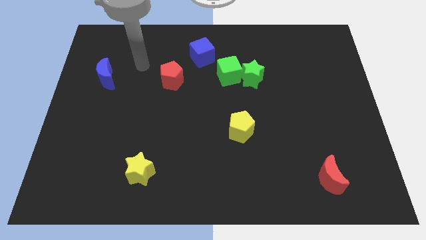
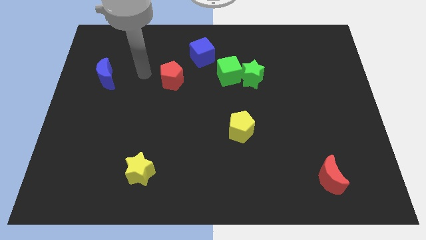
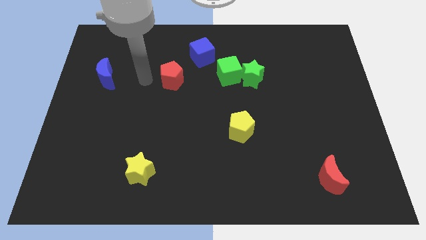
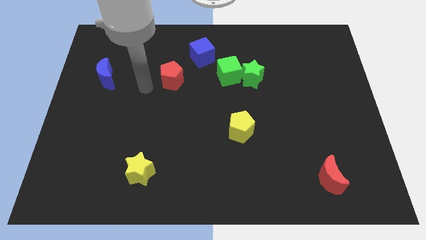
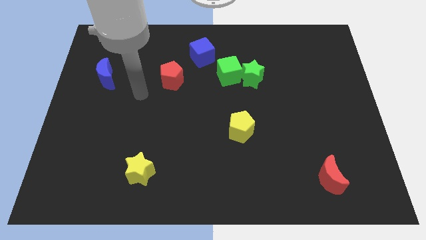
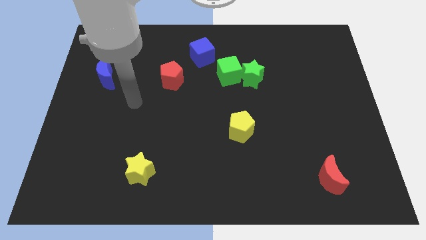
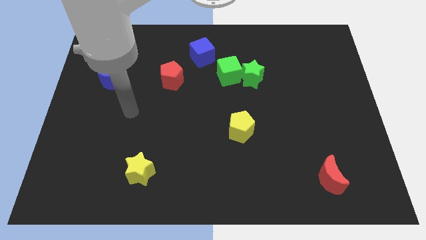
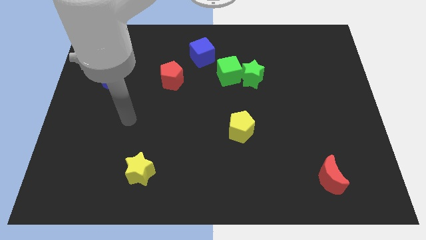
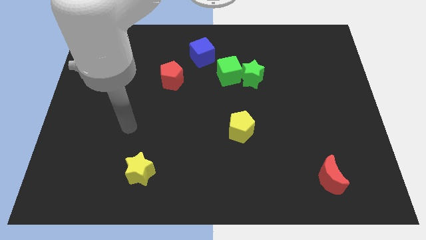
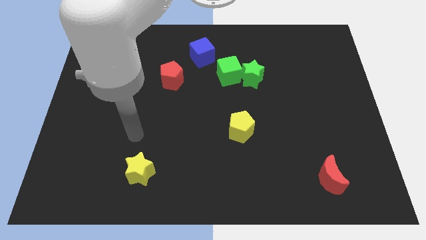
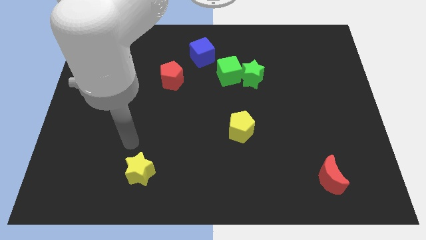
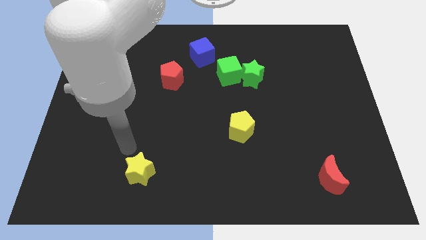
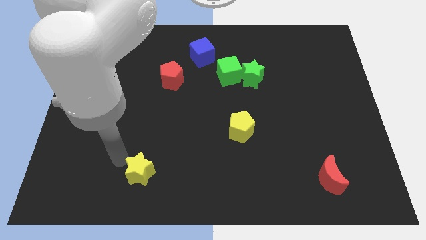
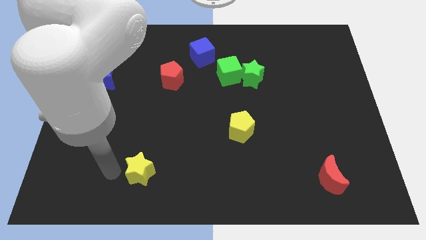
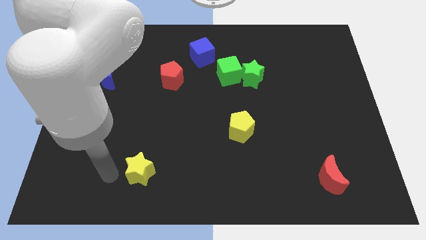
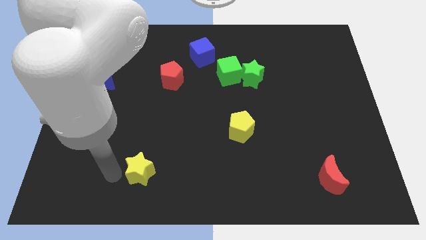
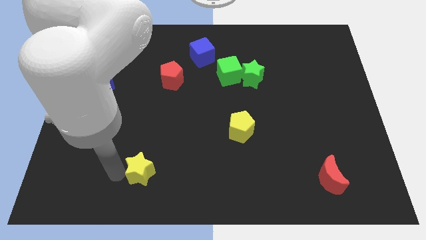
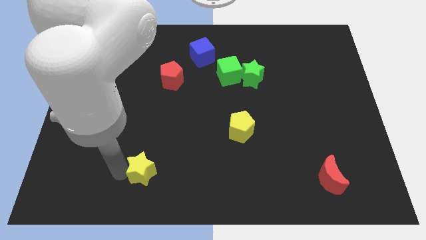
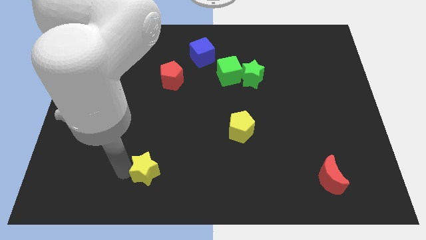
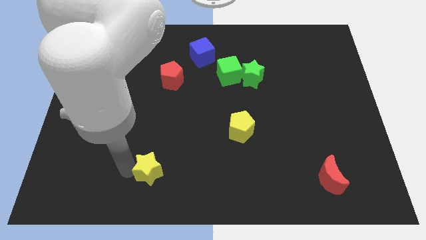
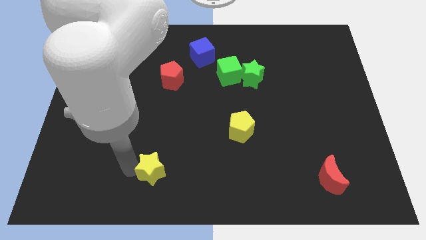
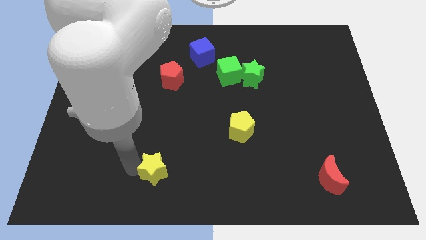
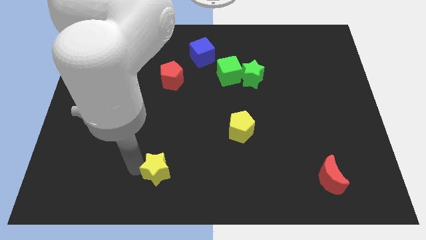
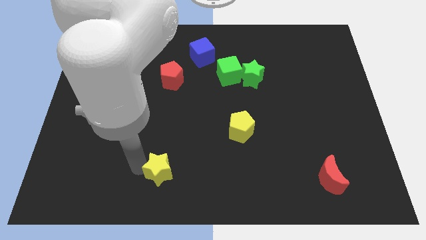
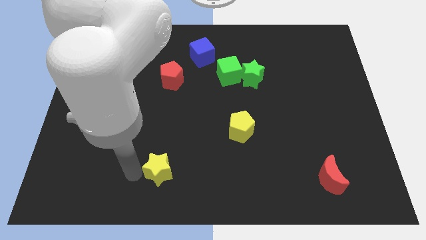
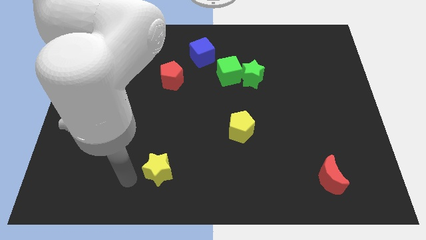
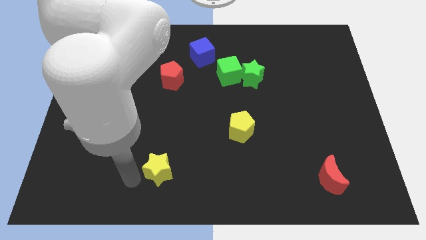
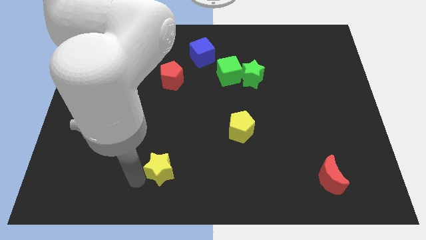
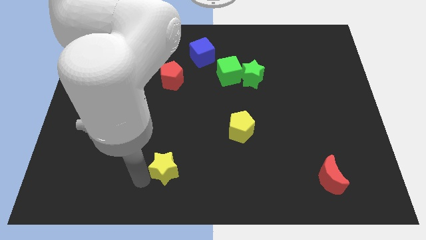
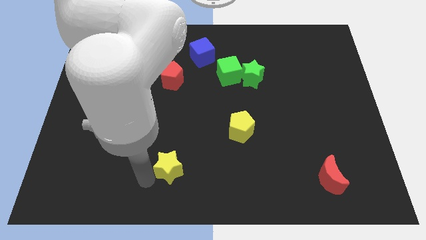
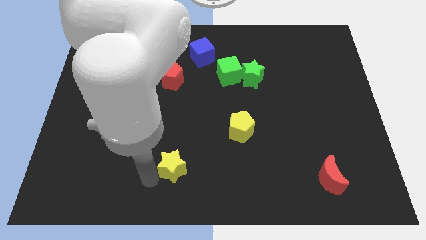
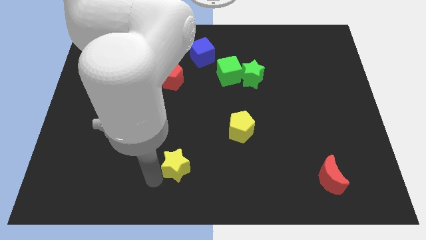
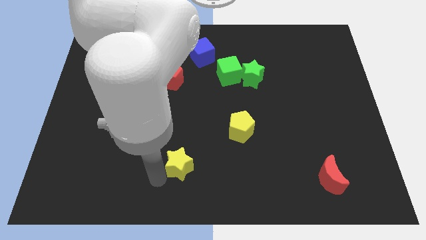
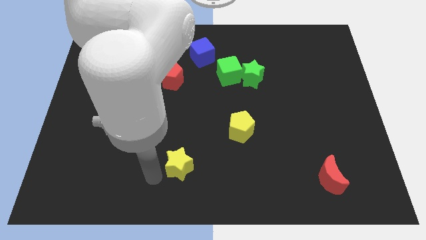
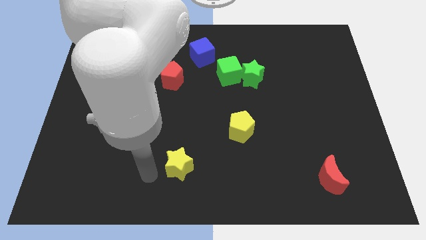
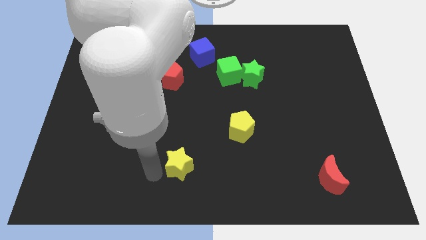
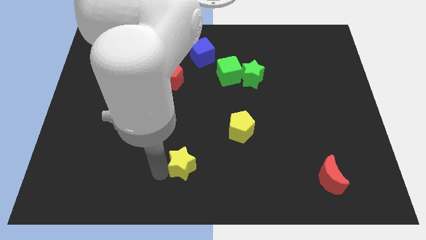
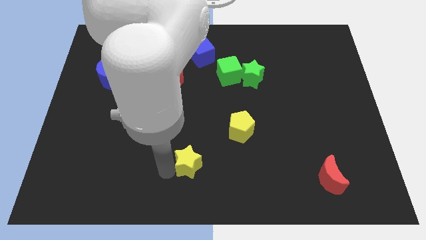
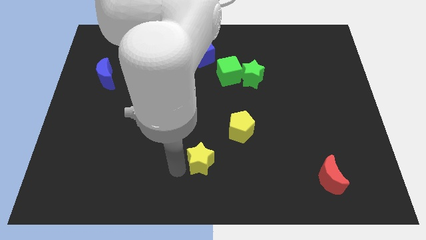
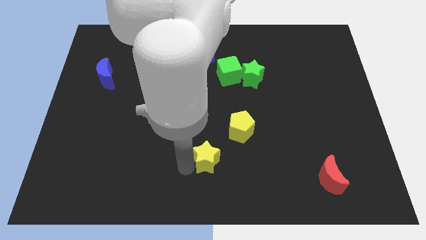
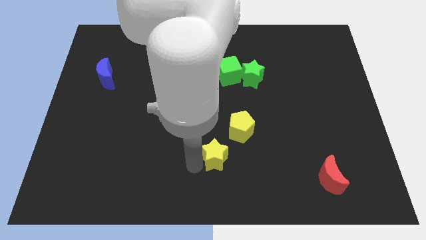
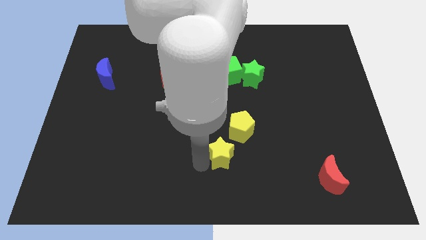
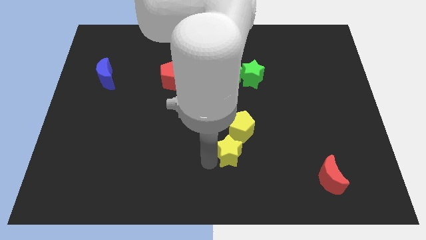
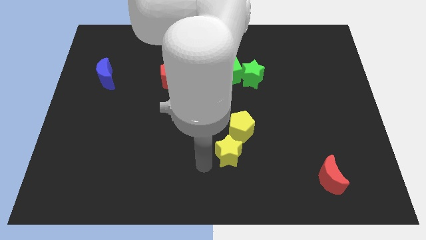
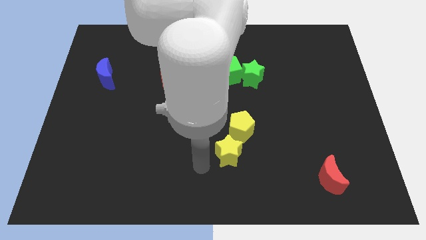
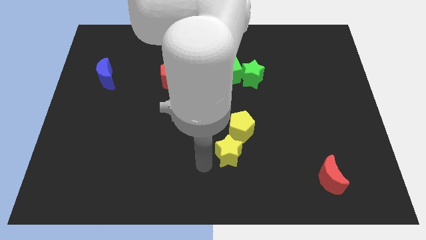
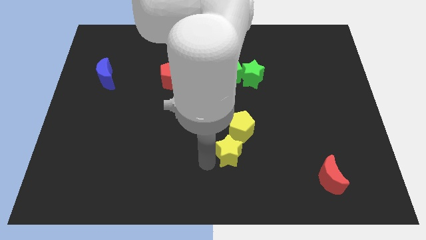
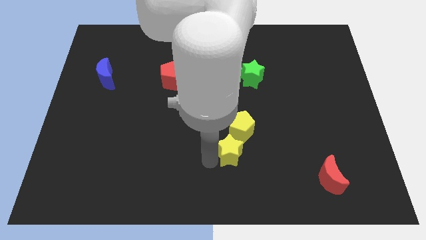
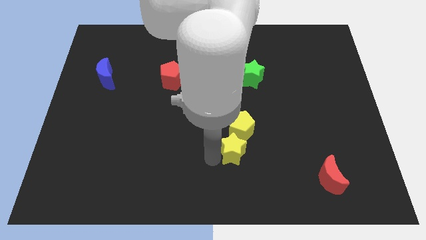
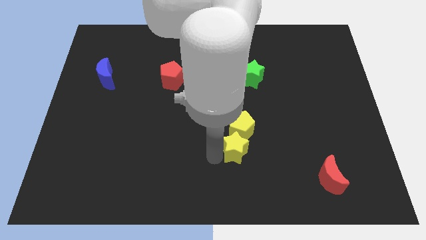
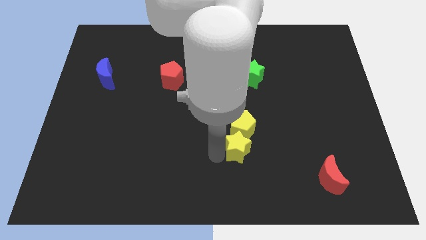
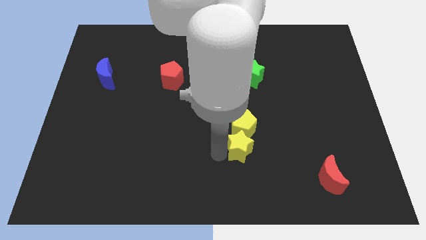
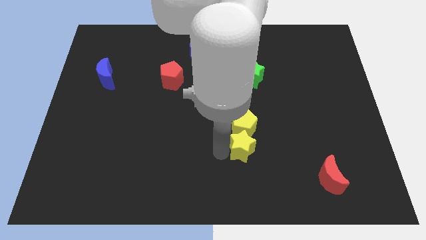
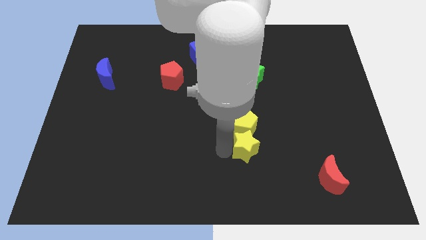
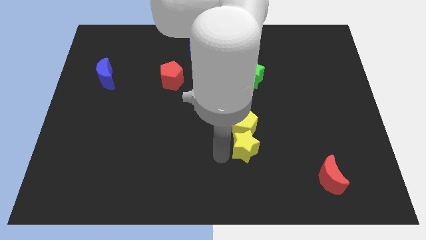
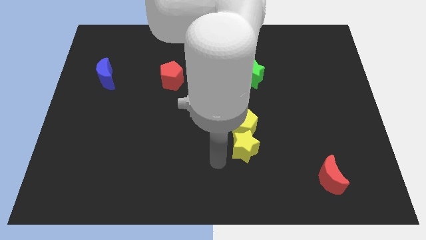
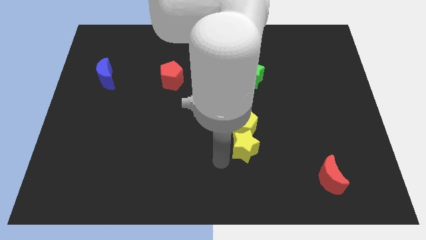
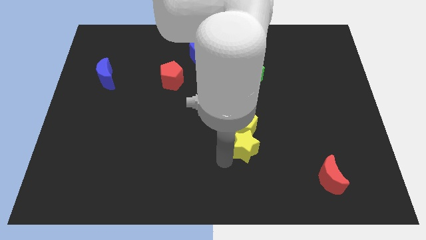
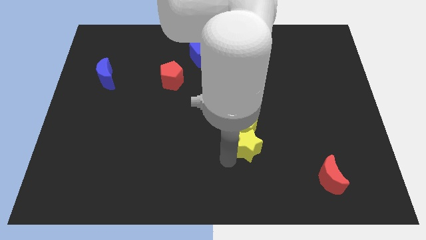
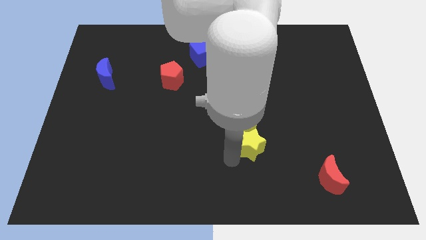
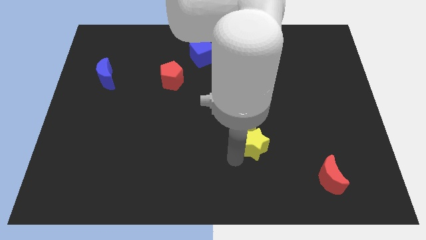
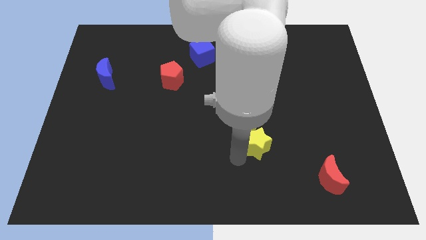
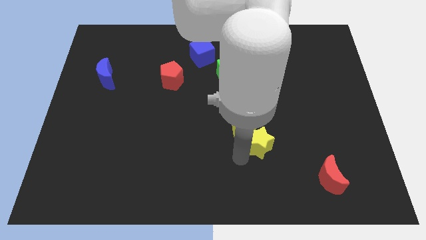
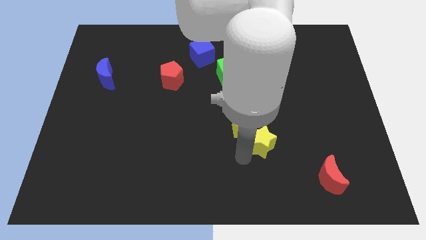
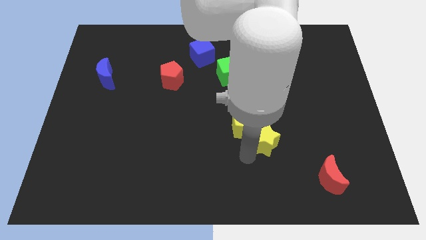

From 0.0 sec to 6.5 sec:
put the yellow star just right of the yellow pentagon

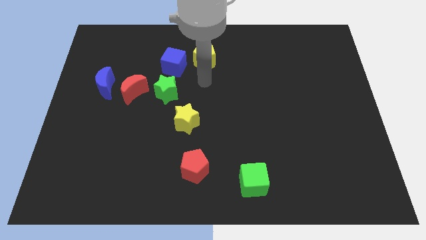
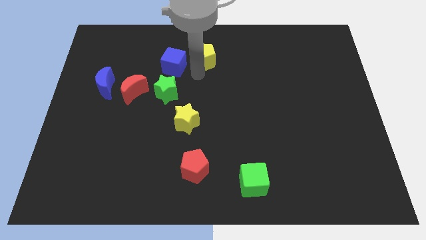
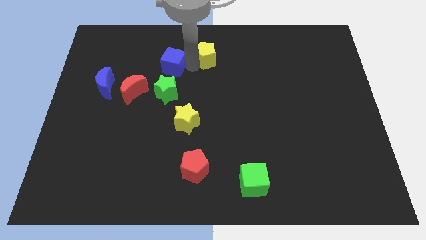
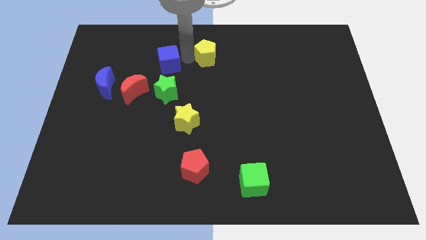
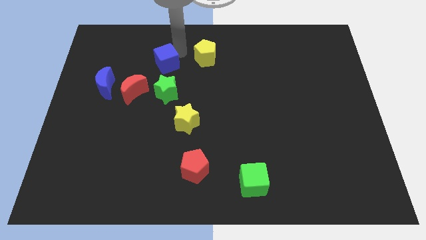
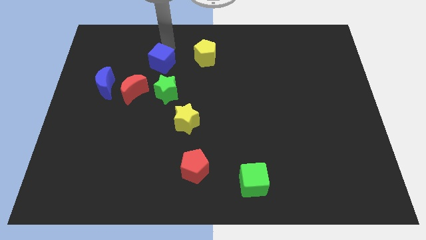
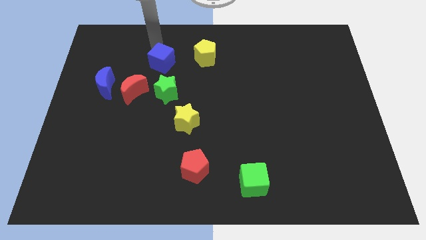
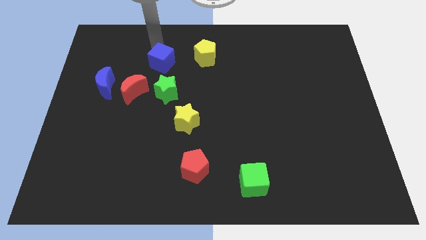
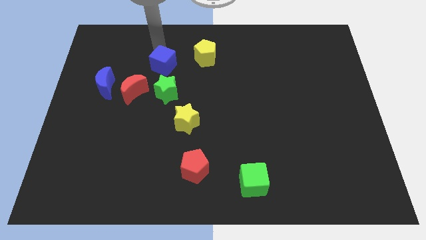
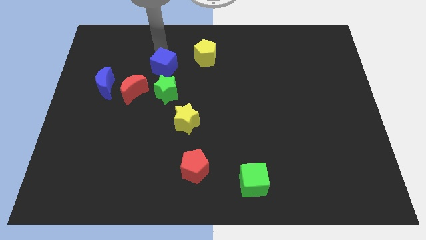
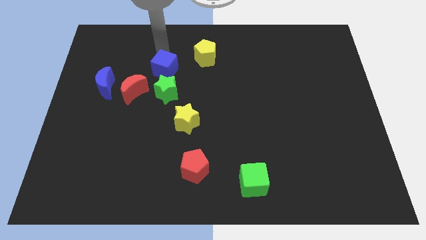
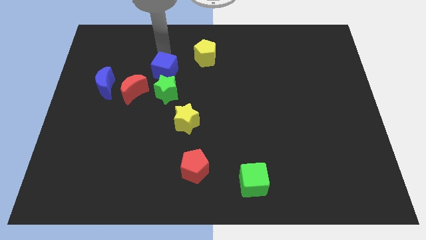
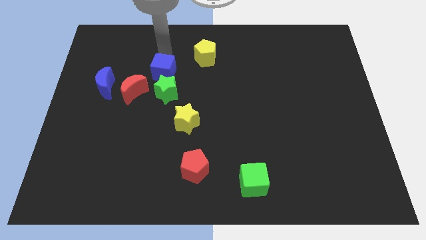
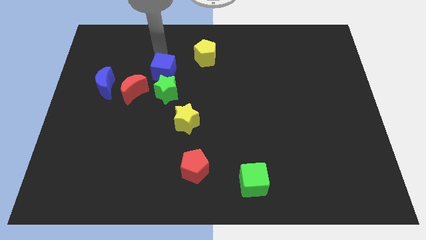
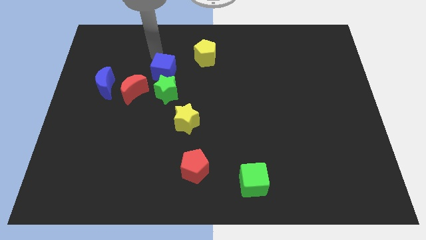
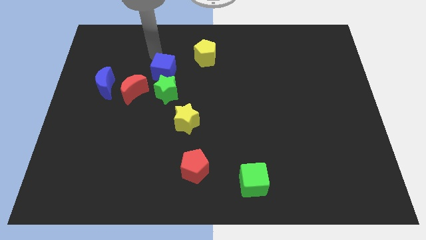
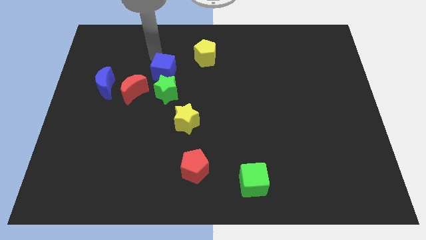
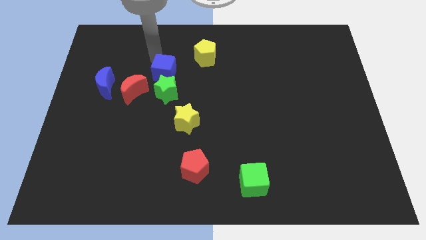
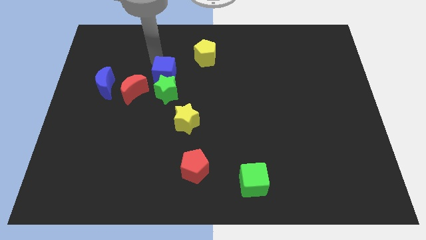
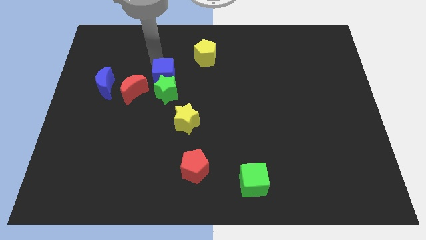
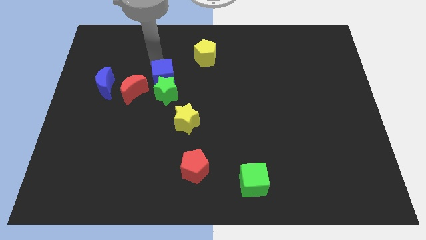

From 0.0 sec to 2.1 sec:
move the blue cube right of the red moon
